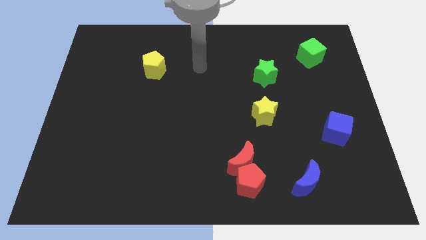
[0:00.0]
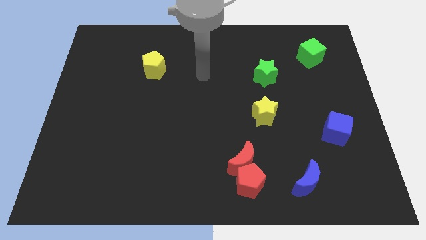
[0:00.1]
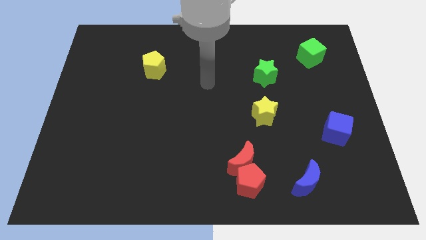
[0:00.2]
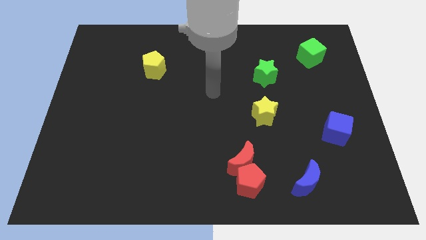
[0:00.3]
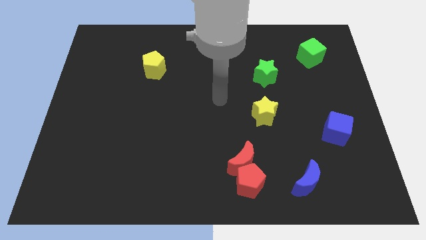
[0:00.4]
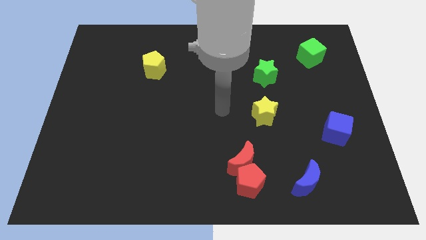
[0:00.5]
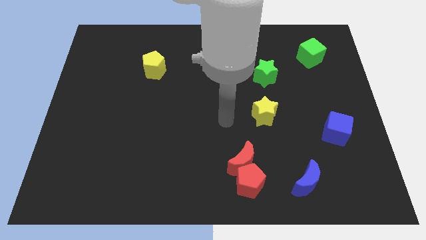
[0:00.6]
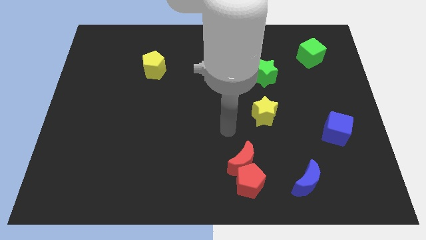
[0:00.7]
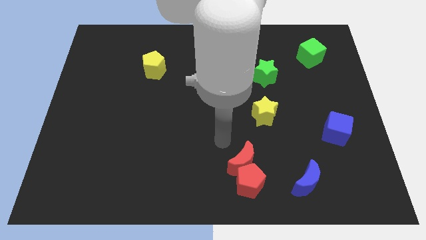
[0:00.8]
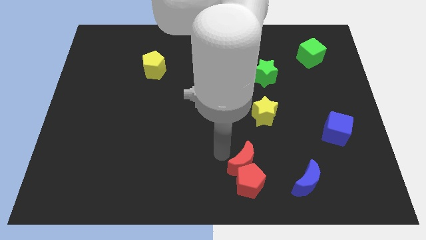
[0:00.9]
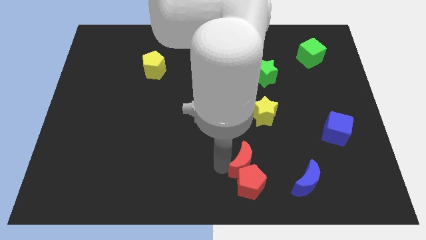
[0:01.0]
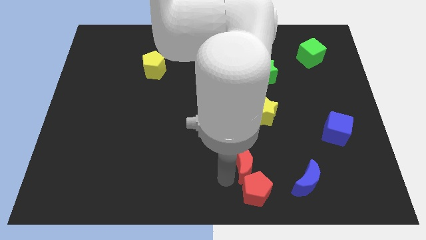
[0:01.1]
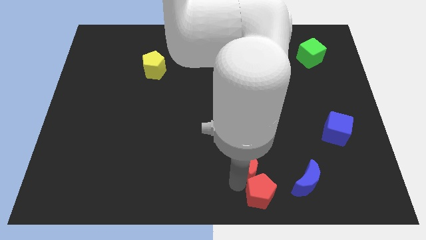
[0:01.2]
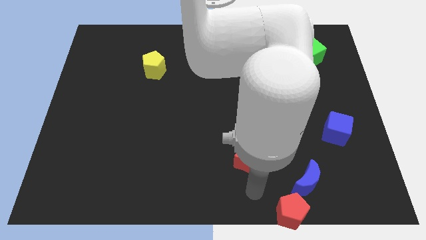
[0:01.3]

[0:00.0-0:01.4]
move the red moon away from the red pentagon

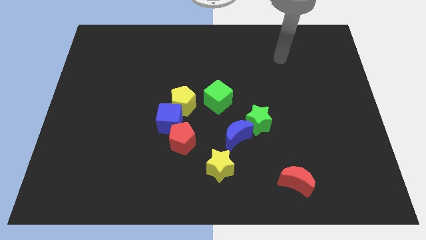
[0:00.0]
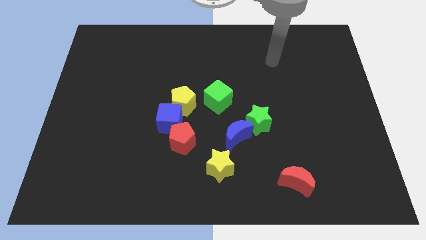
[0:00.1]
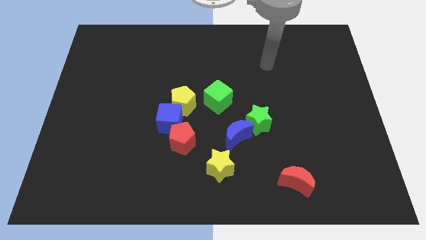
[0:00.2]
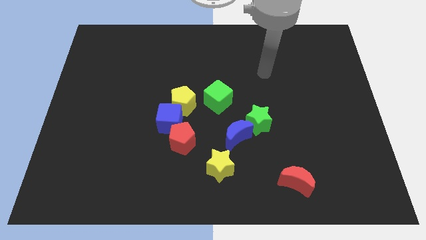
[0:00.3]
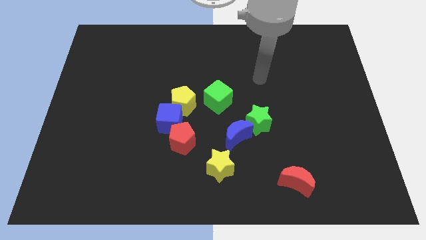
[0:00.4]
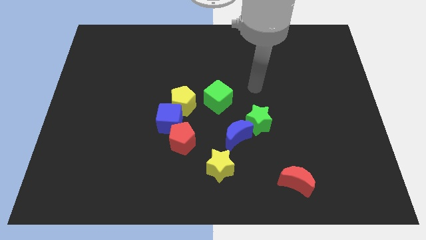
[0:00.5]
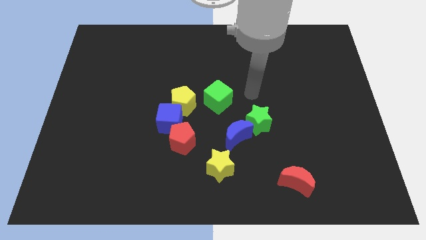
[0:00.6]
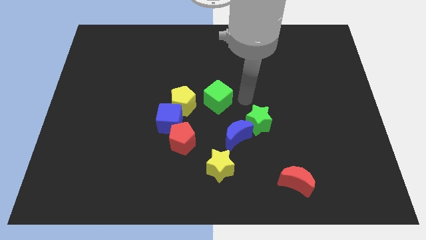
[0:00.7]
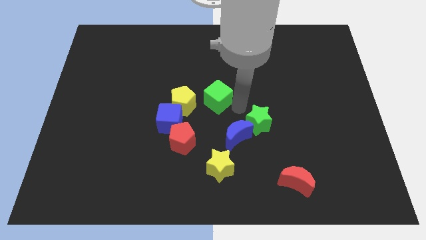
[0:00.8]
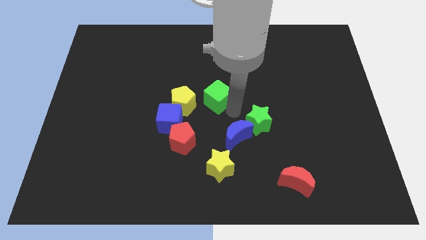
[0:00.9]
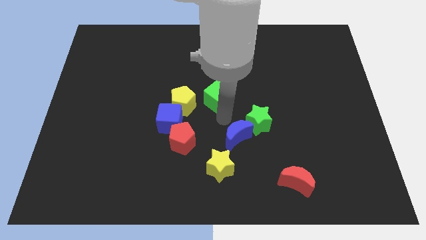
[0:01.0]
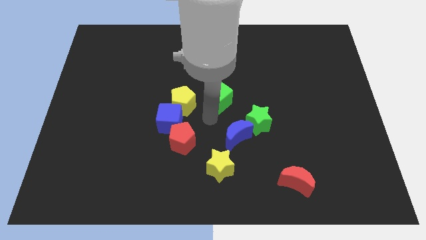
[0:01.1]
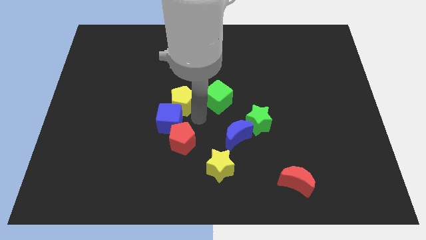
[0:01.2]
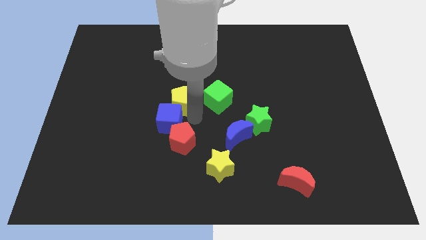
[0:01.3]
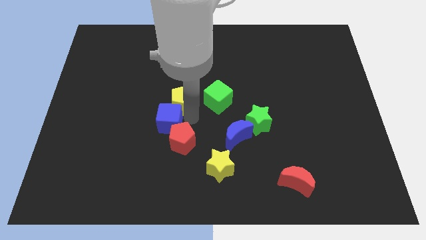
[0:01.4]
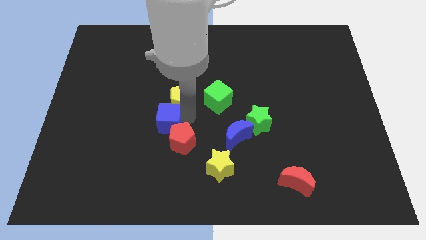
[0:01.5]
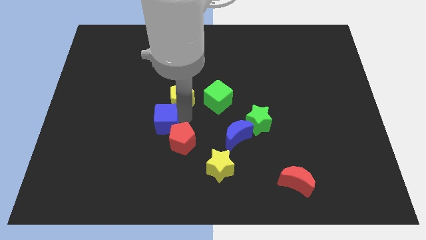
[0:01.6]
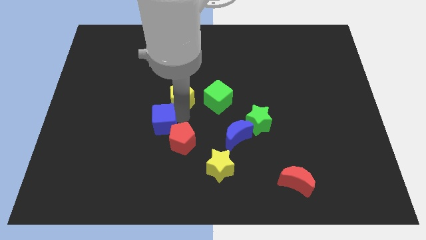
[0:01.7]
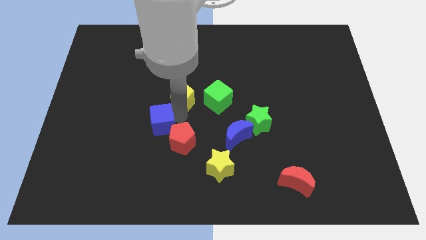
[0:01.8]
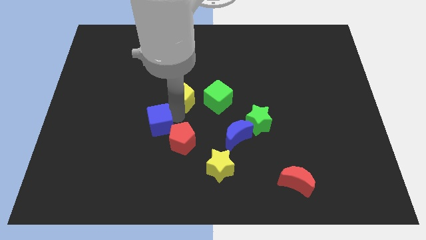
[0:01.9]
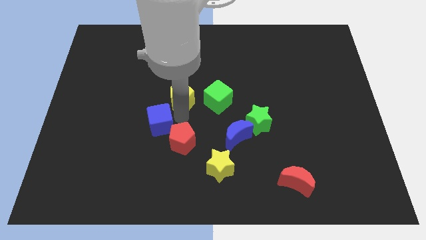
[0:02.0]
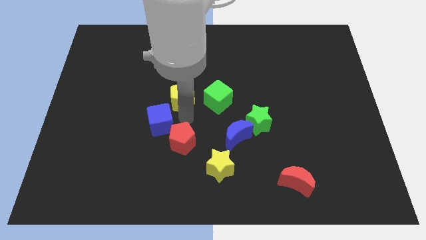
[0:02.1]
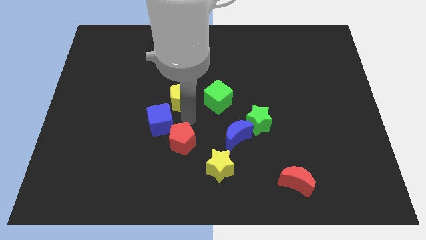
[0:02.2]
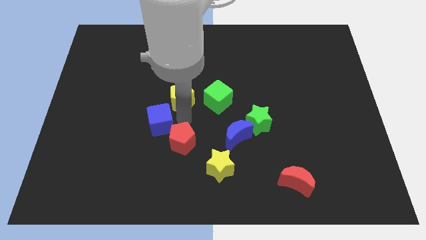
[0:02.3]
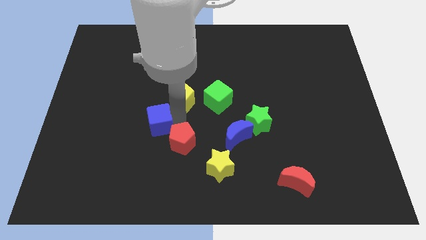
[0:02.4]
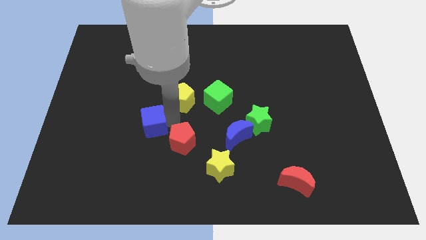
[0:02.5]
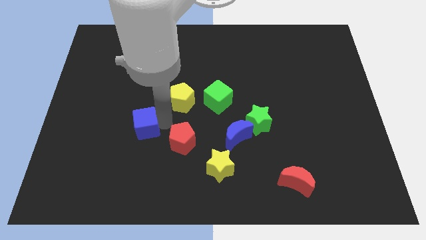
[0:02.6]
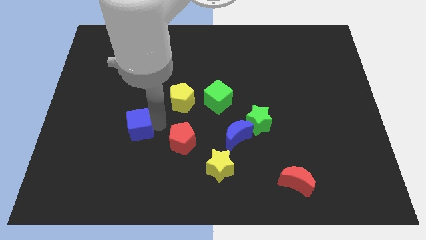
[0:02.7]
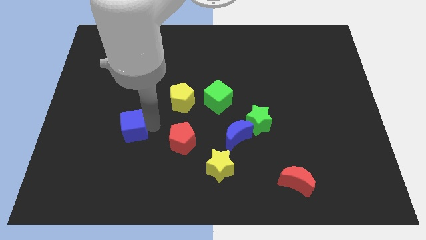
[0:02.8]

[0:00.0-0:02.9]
pull the blue cube apart from the yellow pentagon and red pentagon

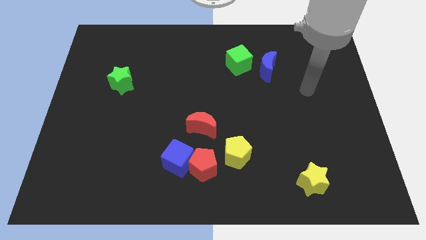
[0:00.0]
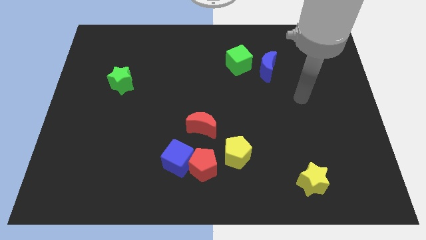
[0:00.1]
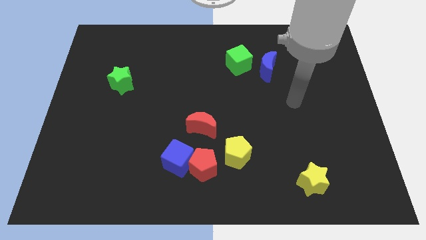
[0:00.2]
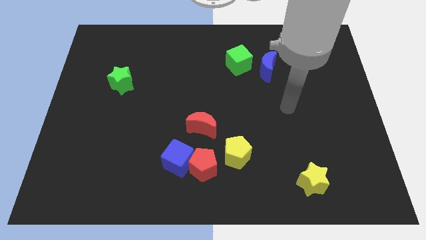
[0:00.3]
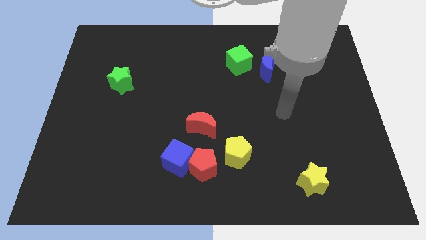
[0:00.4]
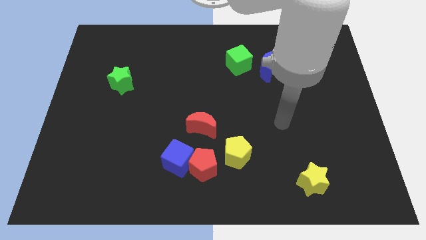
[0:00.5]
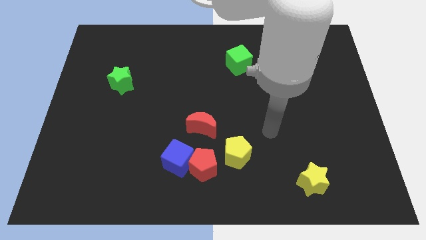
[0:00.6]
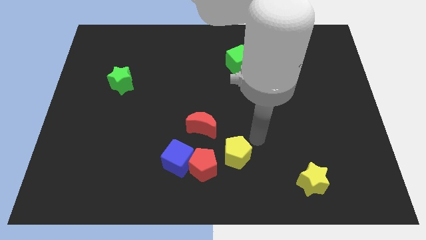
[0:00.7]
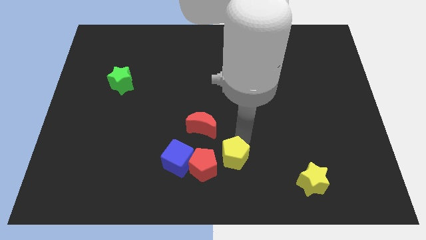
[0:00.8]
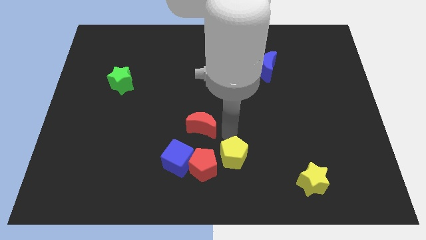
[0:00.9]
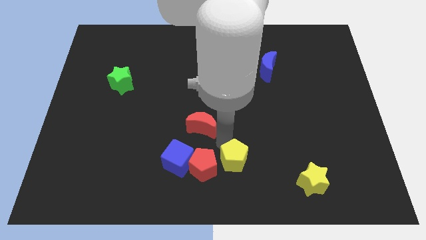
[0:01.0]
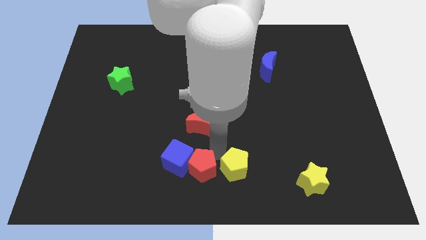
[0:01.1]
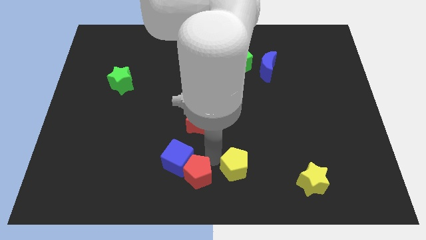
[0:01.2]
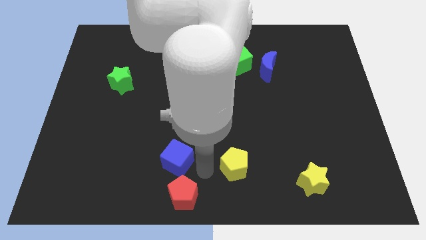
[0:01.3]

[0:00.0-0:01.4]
move the yellow pentagon away from the red pentagon

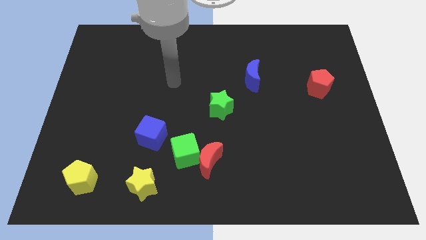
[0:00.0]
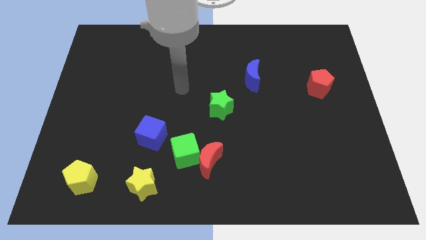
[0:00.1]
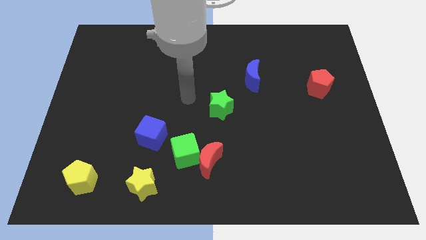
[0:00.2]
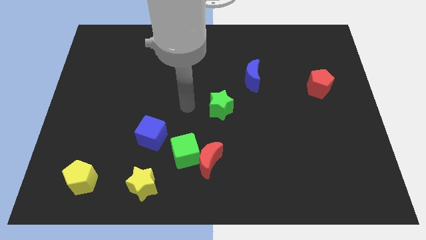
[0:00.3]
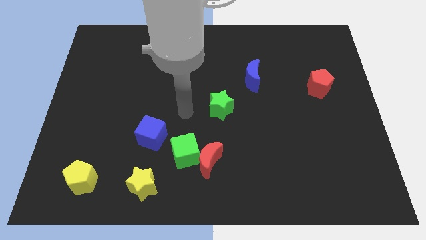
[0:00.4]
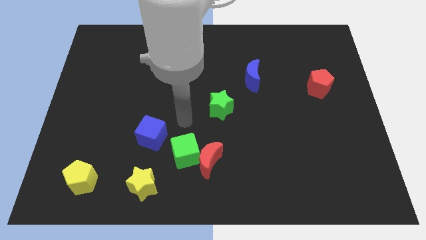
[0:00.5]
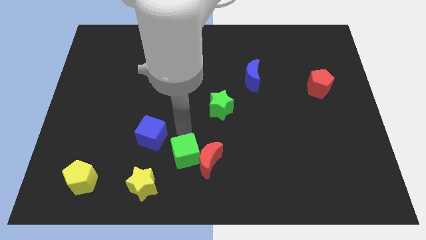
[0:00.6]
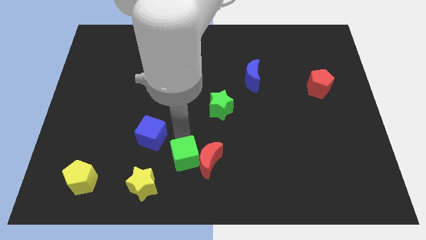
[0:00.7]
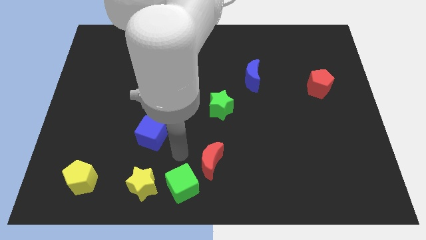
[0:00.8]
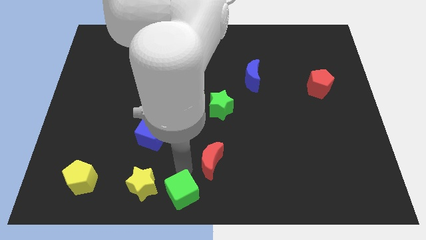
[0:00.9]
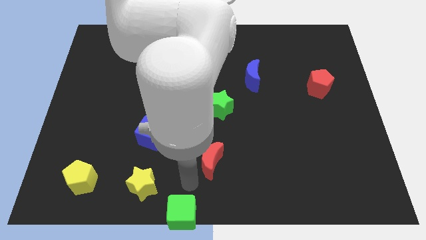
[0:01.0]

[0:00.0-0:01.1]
pull the red moon apart from the green cube

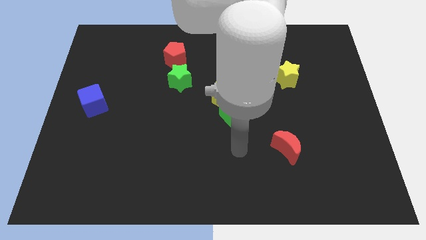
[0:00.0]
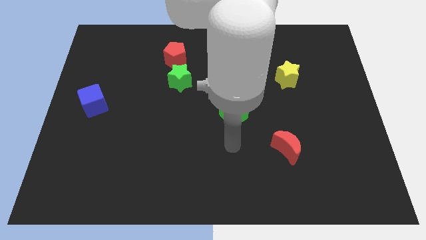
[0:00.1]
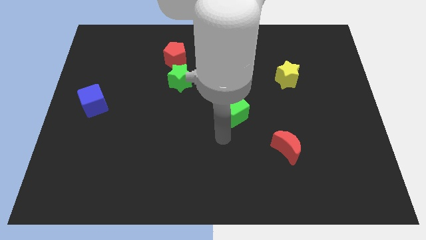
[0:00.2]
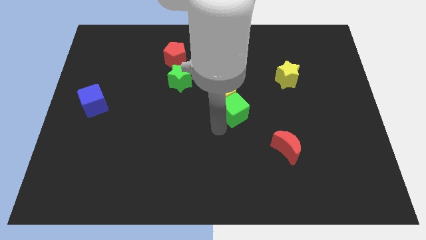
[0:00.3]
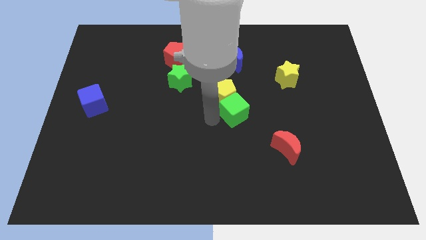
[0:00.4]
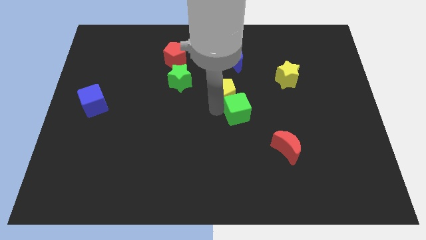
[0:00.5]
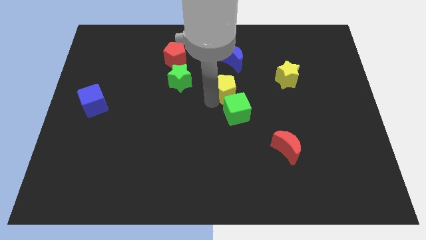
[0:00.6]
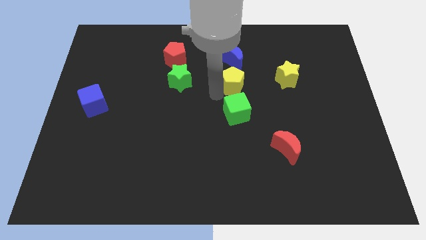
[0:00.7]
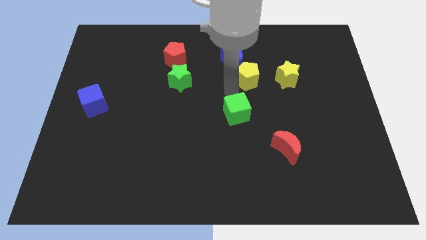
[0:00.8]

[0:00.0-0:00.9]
separate the green cube from the yellow pentagon

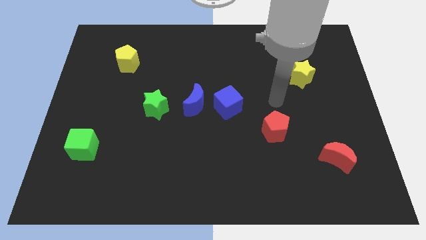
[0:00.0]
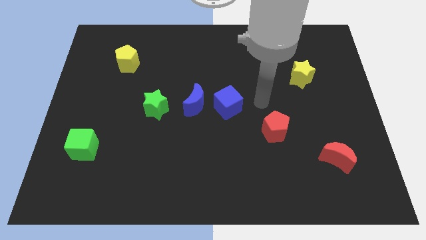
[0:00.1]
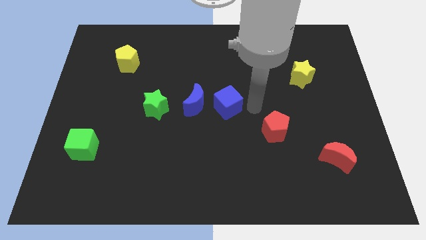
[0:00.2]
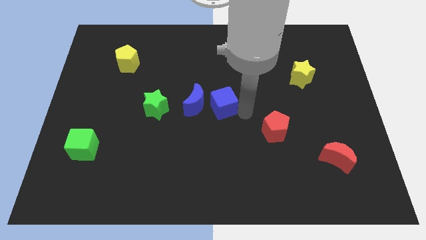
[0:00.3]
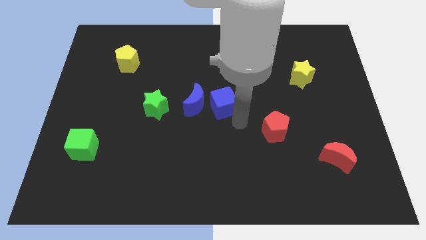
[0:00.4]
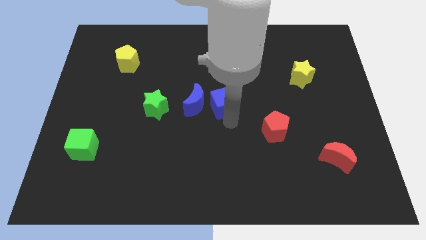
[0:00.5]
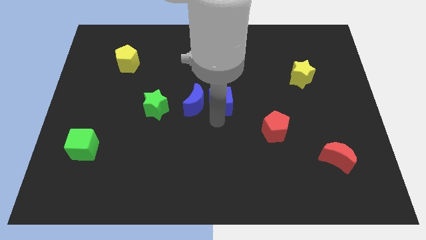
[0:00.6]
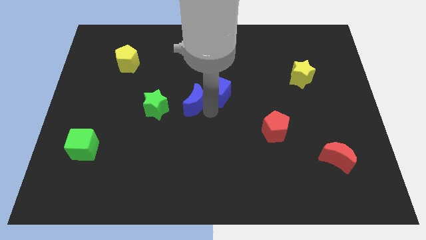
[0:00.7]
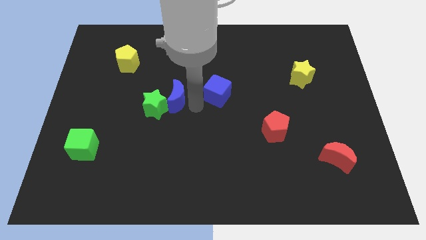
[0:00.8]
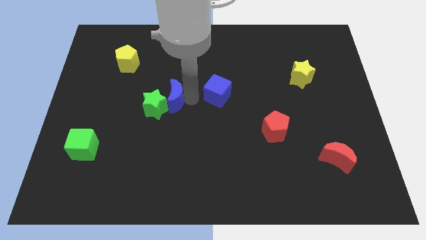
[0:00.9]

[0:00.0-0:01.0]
move the blue cube away from the blue moon

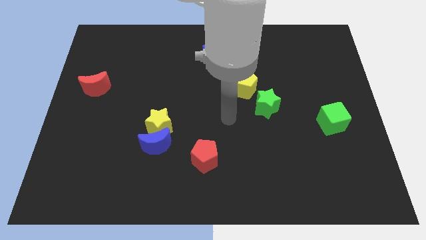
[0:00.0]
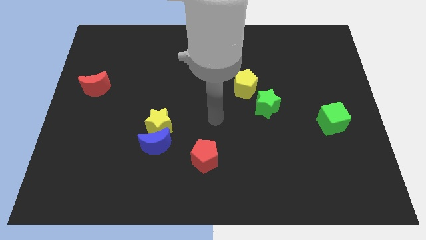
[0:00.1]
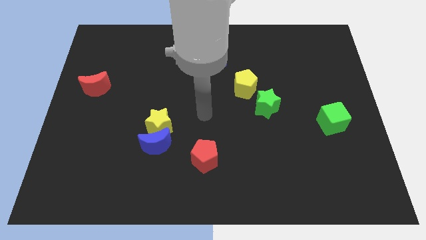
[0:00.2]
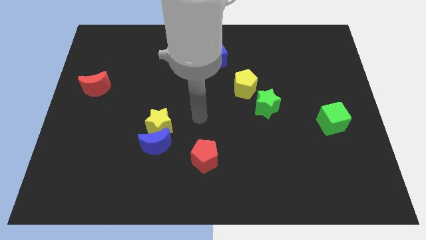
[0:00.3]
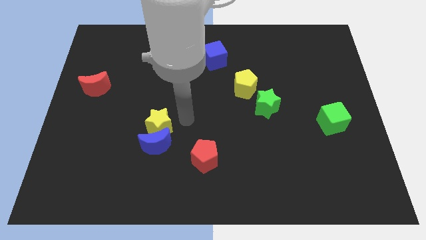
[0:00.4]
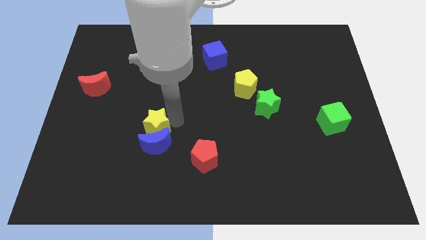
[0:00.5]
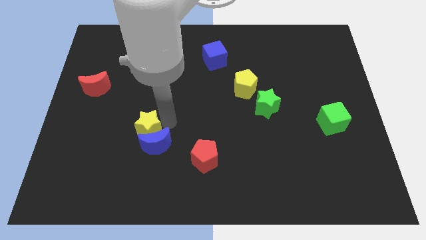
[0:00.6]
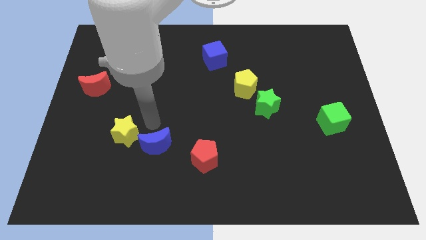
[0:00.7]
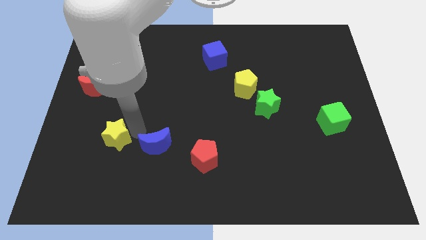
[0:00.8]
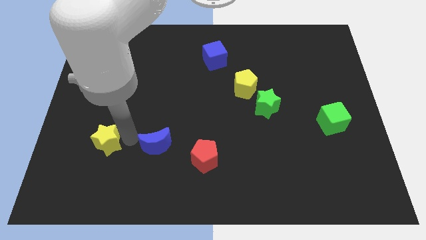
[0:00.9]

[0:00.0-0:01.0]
move the blue moon away from the yellow star
